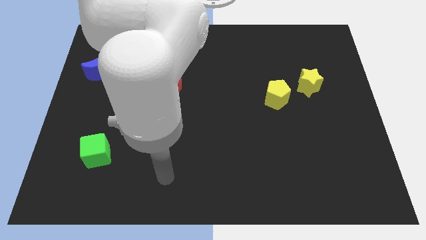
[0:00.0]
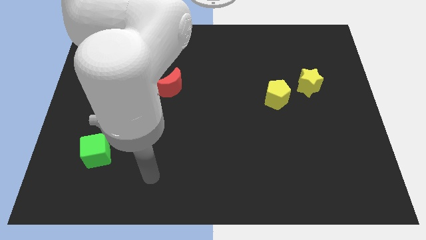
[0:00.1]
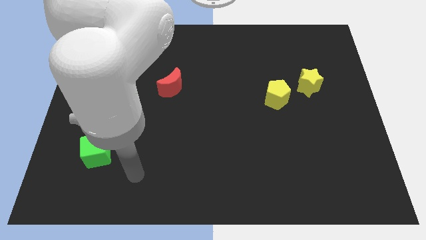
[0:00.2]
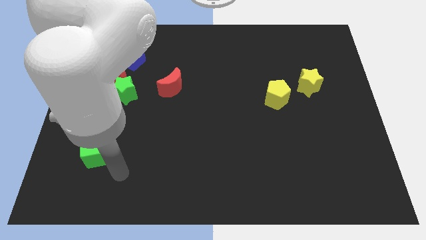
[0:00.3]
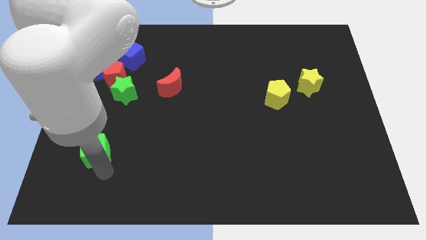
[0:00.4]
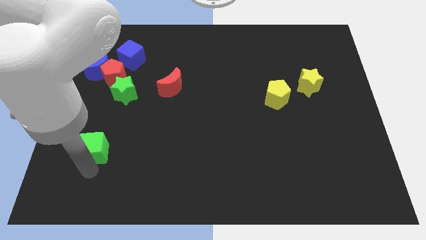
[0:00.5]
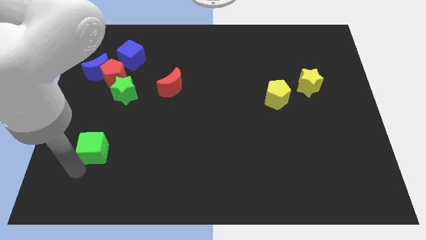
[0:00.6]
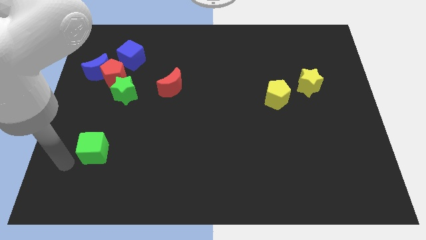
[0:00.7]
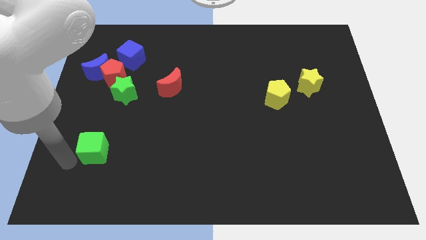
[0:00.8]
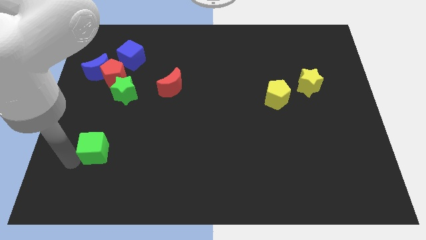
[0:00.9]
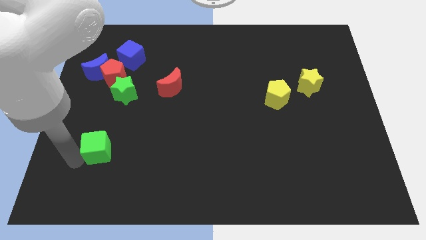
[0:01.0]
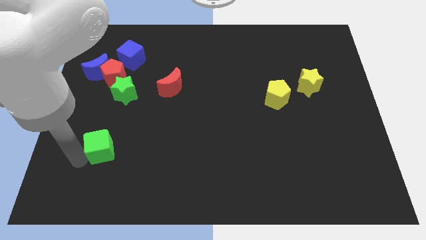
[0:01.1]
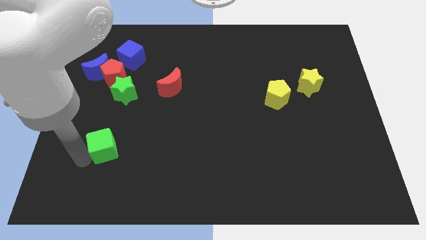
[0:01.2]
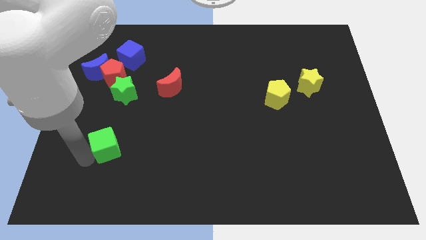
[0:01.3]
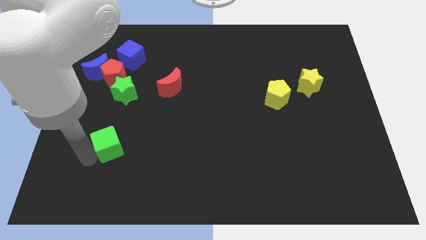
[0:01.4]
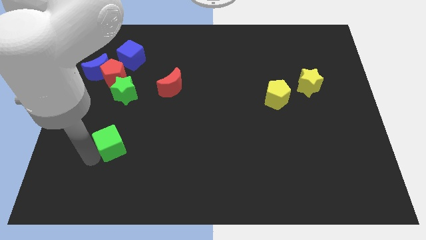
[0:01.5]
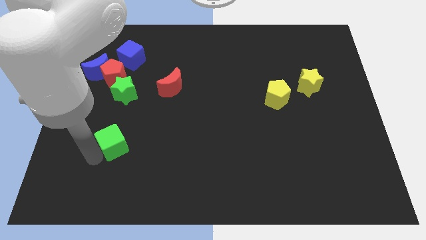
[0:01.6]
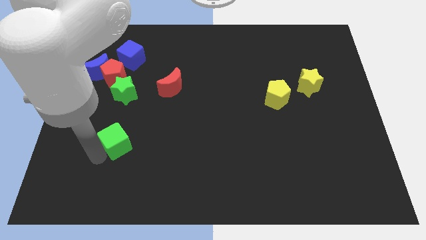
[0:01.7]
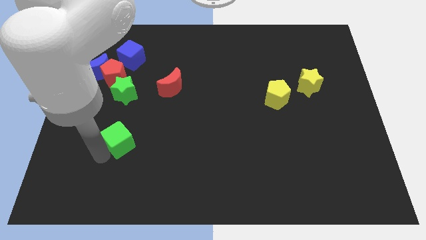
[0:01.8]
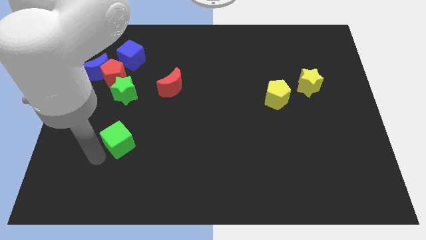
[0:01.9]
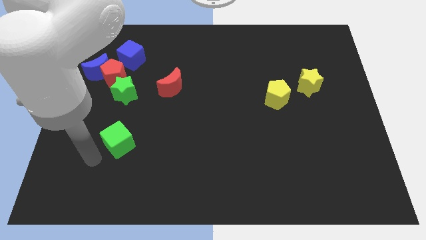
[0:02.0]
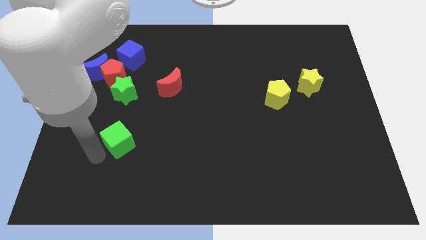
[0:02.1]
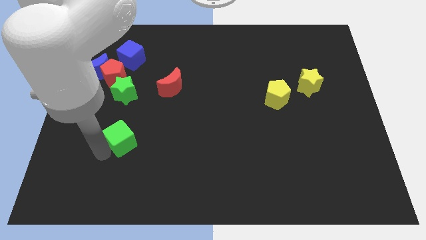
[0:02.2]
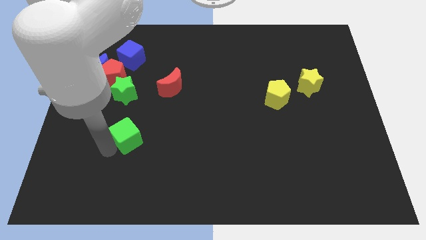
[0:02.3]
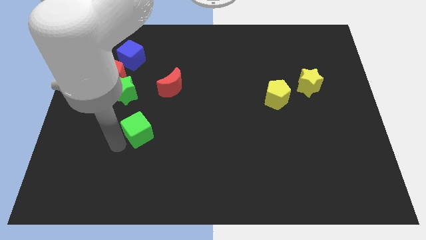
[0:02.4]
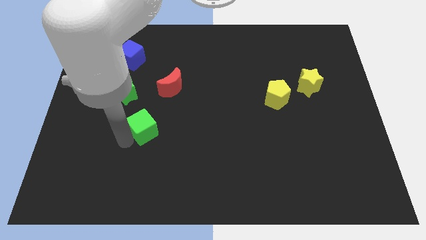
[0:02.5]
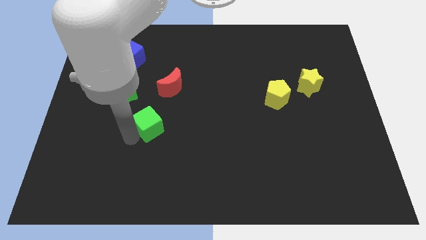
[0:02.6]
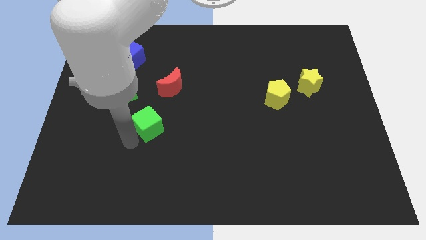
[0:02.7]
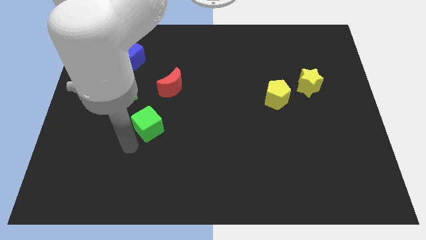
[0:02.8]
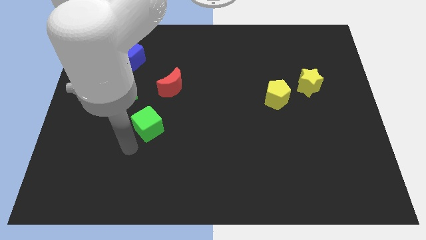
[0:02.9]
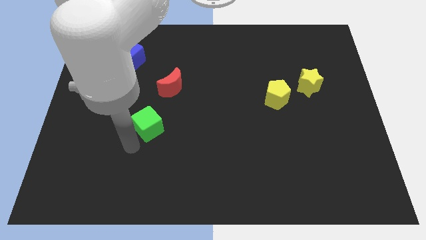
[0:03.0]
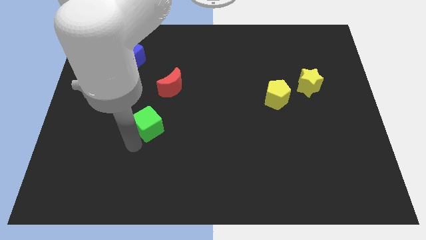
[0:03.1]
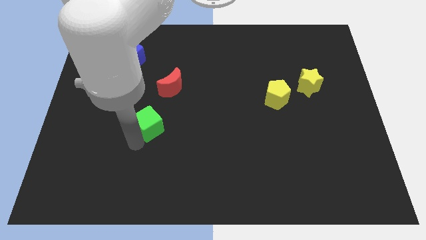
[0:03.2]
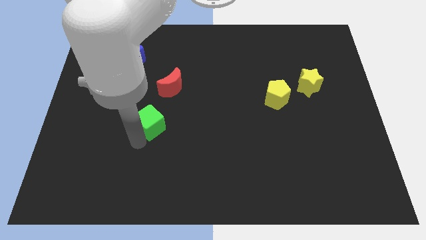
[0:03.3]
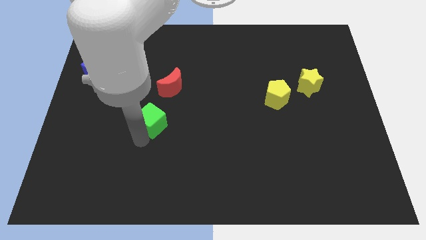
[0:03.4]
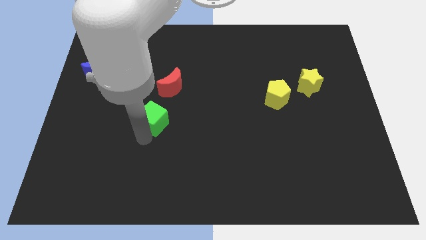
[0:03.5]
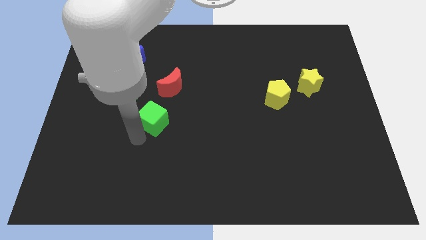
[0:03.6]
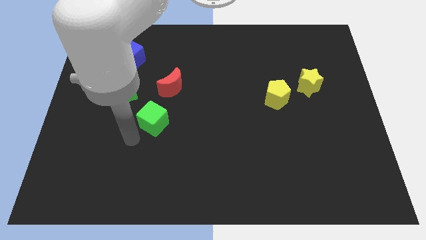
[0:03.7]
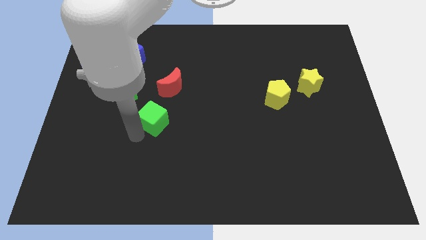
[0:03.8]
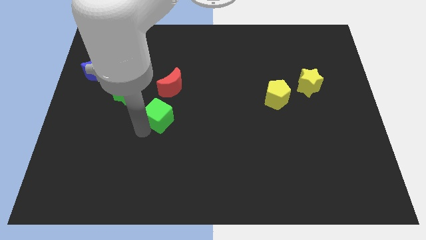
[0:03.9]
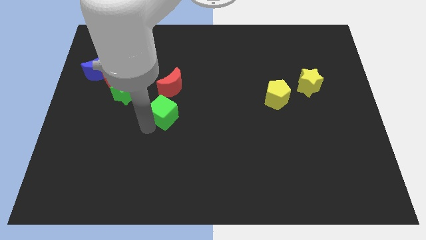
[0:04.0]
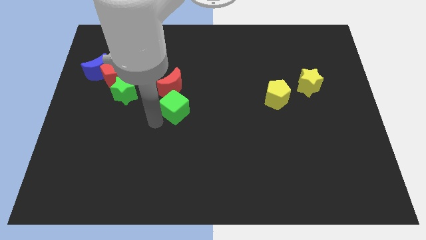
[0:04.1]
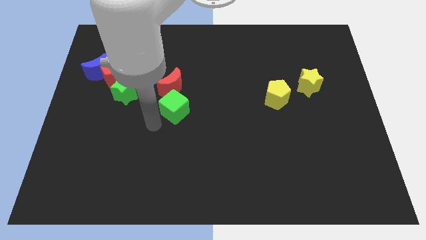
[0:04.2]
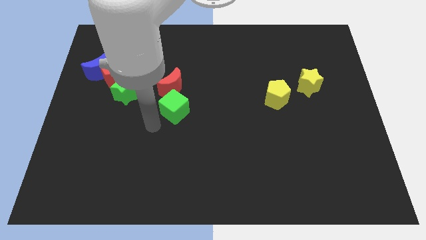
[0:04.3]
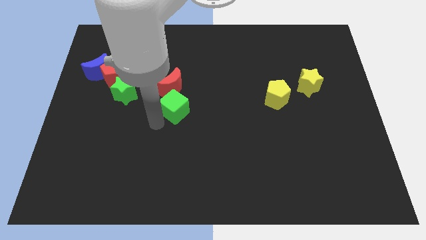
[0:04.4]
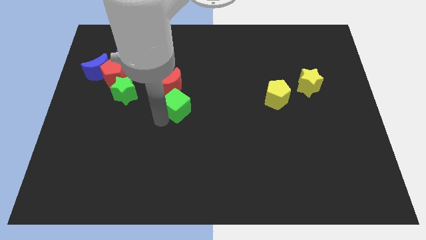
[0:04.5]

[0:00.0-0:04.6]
move the green cube upwards and then to the right

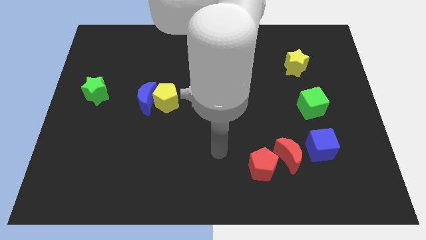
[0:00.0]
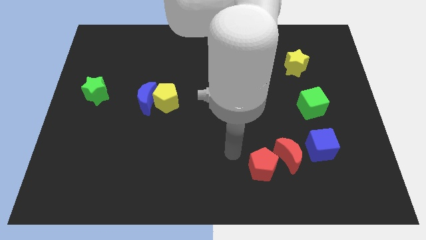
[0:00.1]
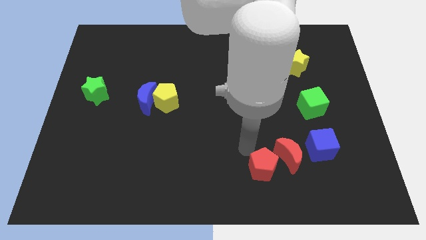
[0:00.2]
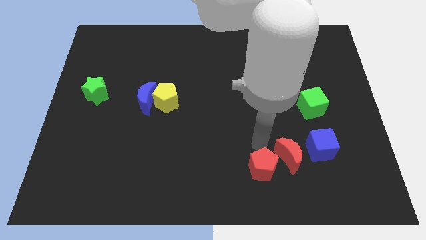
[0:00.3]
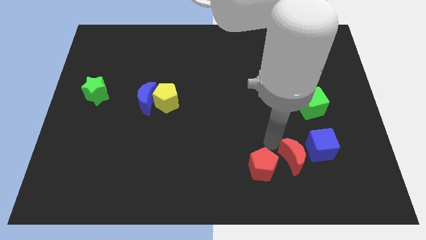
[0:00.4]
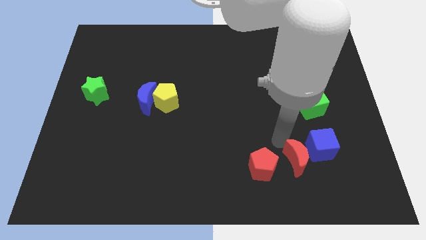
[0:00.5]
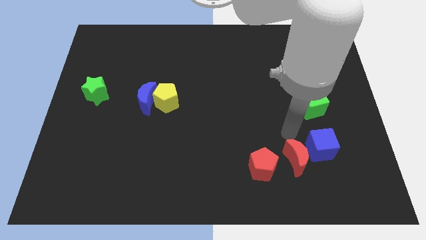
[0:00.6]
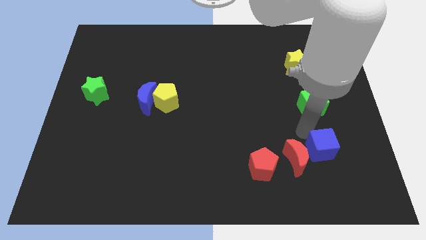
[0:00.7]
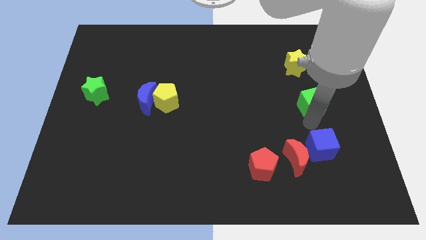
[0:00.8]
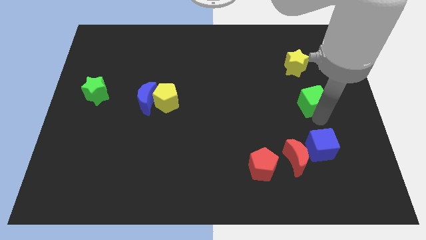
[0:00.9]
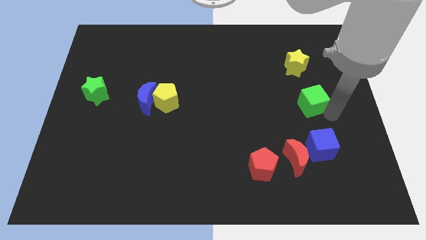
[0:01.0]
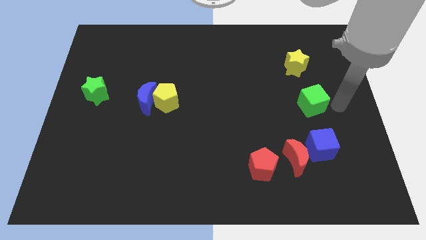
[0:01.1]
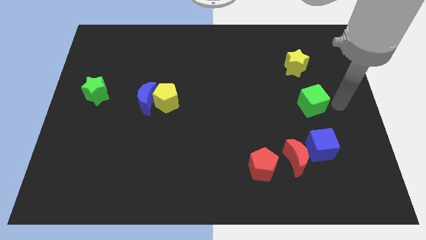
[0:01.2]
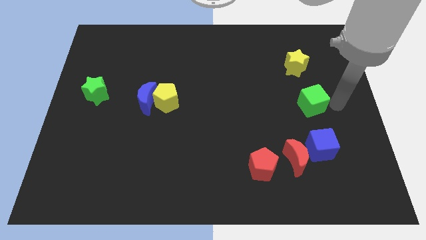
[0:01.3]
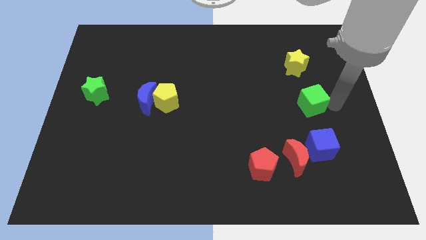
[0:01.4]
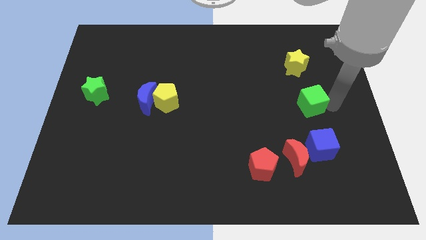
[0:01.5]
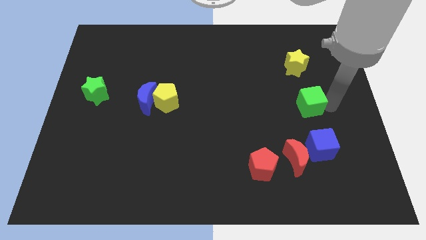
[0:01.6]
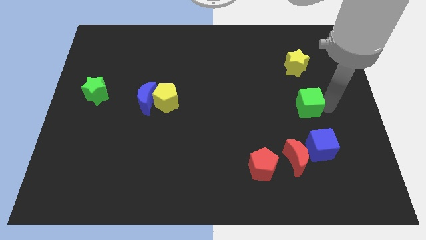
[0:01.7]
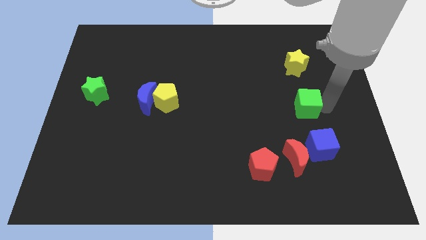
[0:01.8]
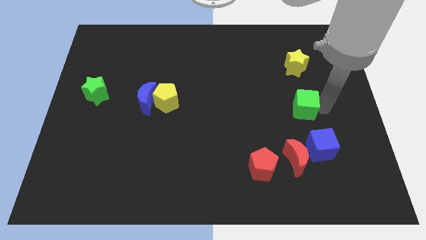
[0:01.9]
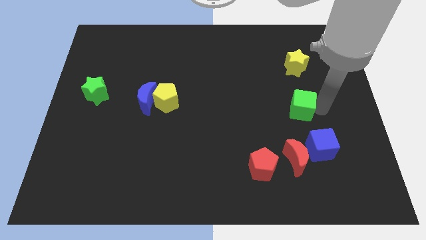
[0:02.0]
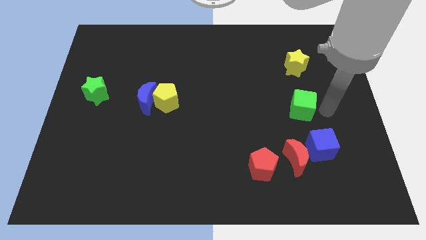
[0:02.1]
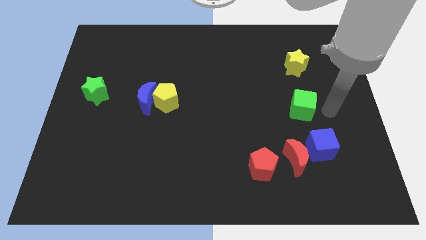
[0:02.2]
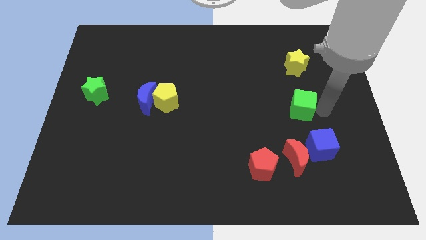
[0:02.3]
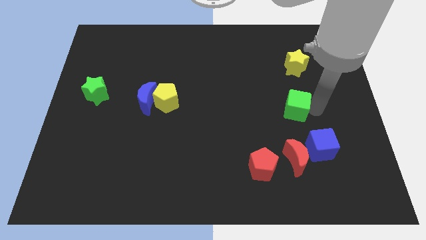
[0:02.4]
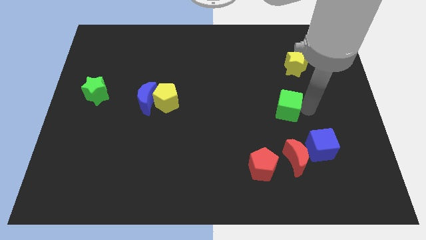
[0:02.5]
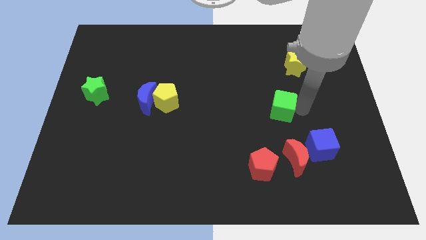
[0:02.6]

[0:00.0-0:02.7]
slightly move the green cube left

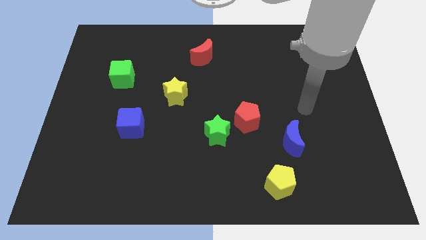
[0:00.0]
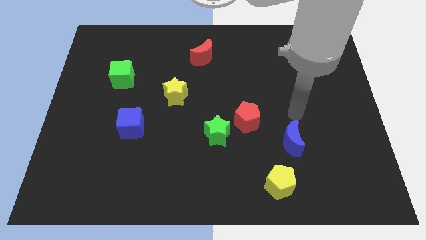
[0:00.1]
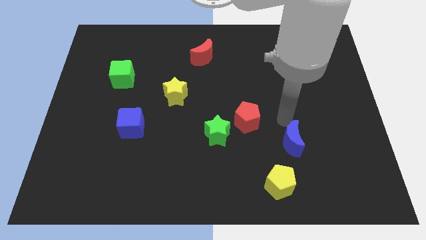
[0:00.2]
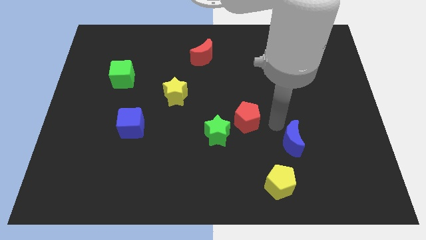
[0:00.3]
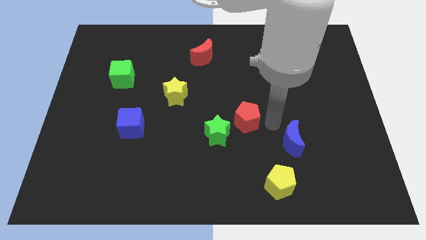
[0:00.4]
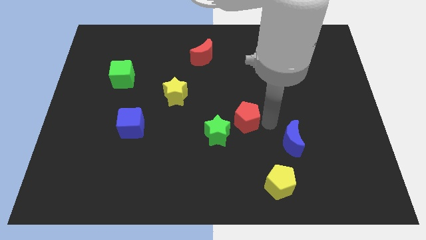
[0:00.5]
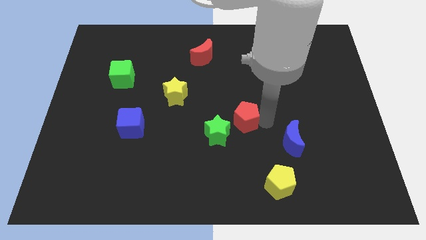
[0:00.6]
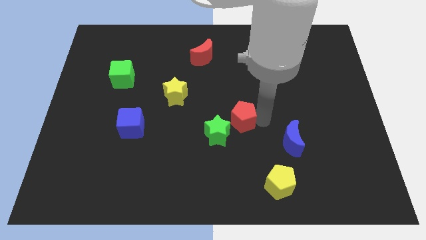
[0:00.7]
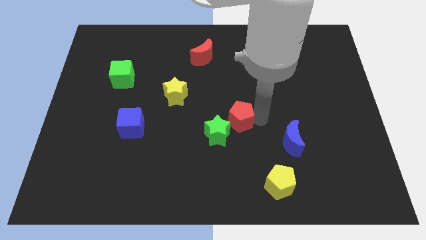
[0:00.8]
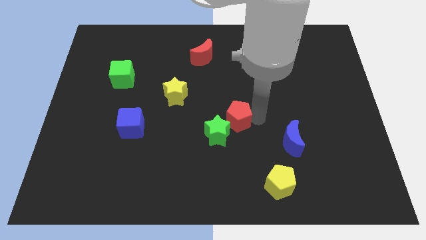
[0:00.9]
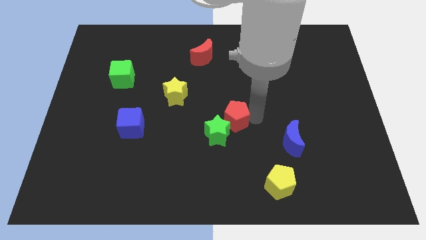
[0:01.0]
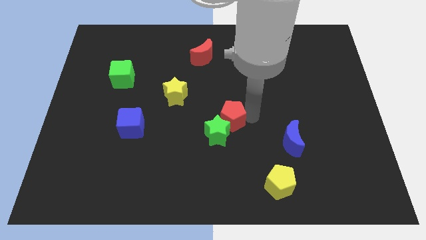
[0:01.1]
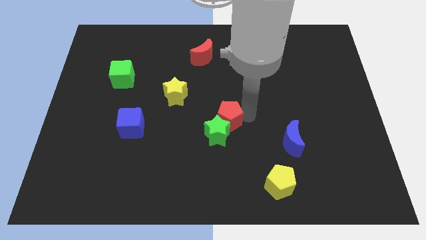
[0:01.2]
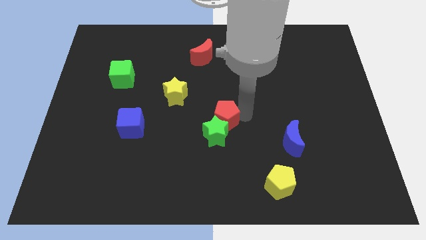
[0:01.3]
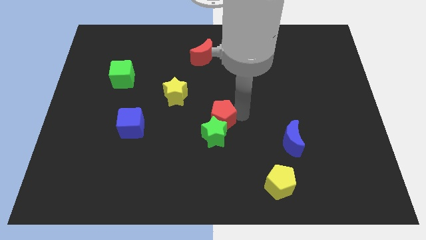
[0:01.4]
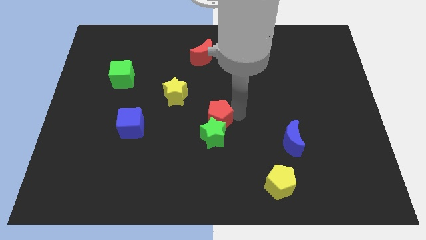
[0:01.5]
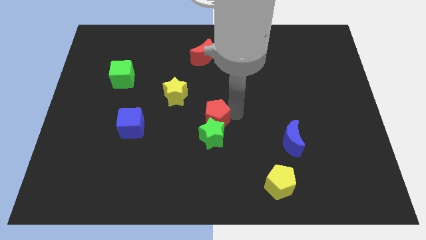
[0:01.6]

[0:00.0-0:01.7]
push the red pentagon a bit to the left
